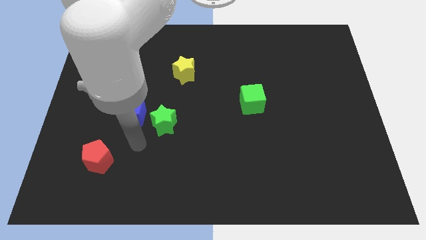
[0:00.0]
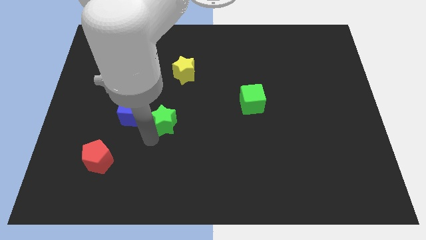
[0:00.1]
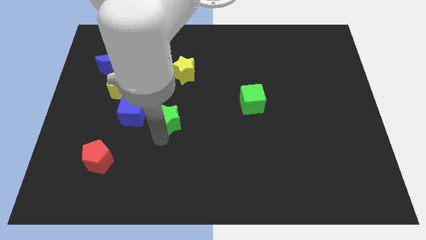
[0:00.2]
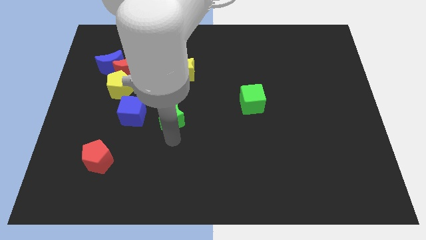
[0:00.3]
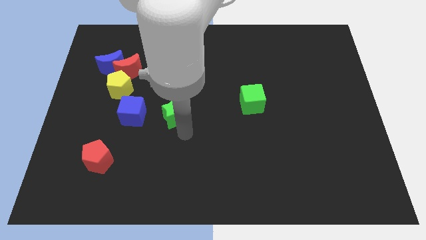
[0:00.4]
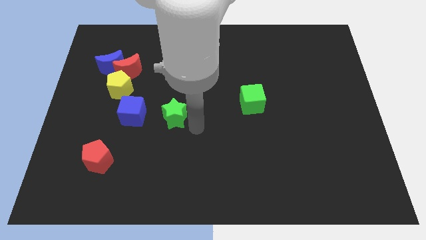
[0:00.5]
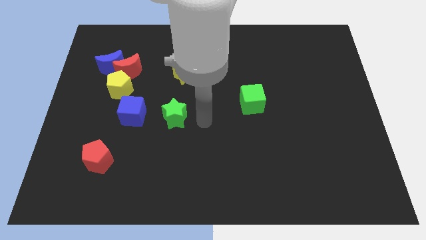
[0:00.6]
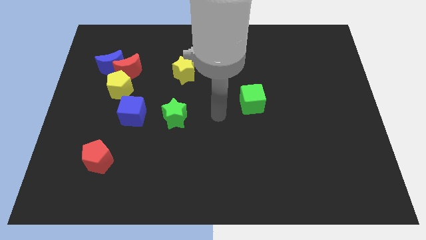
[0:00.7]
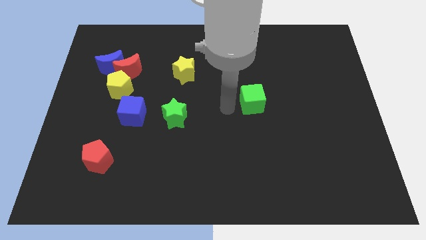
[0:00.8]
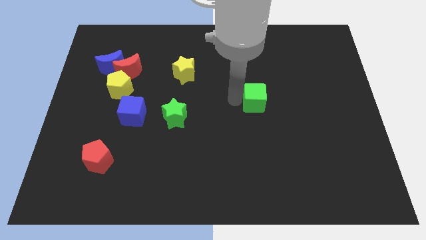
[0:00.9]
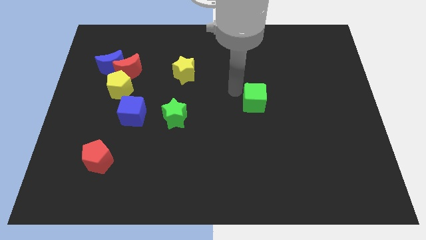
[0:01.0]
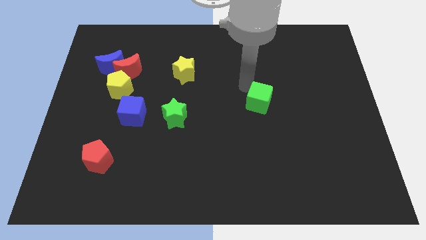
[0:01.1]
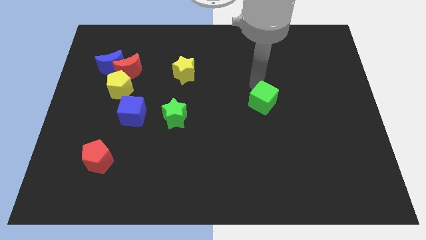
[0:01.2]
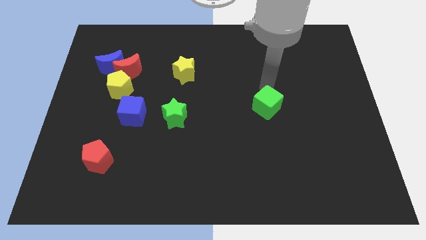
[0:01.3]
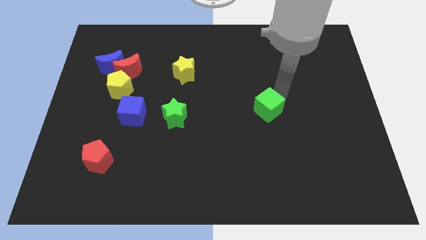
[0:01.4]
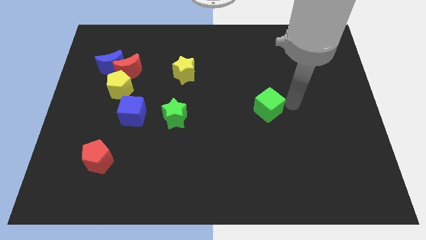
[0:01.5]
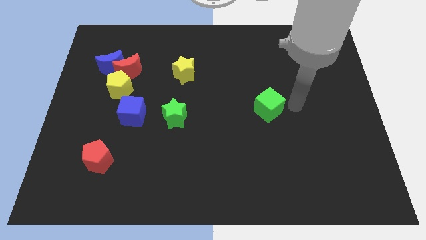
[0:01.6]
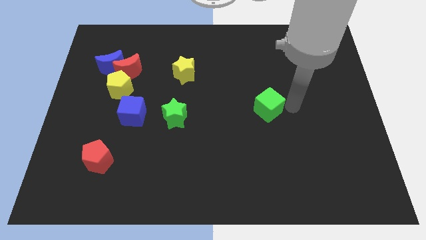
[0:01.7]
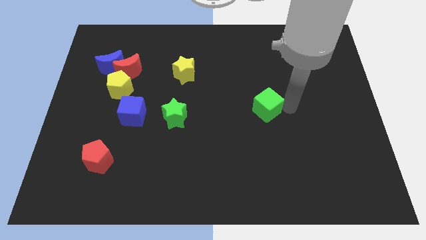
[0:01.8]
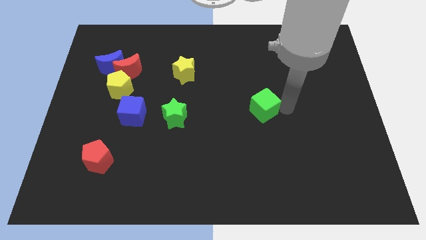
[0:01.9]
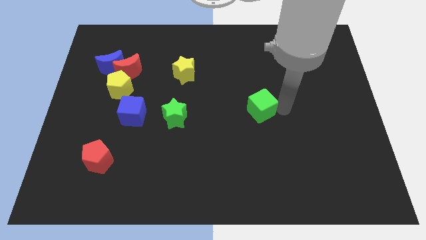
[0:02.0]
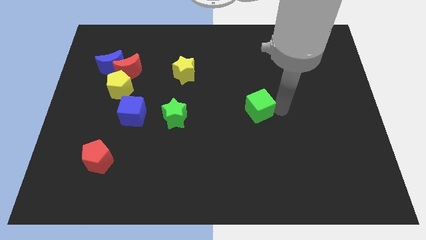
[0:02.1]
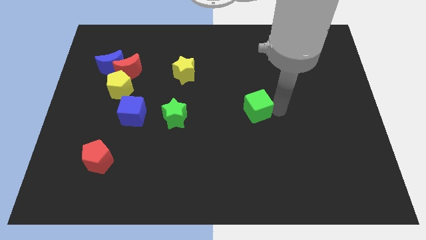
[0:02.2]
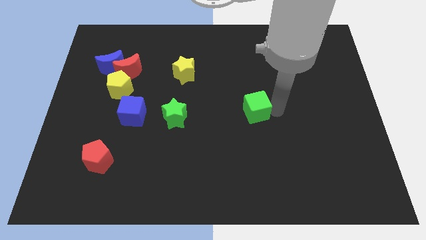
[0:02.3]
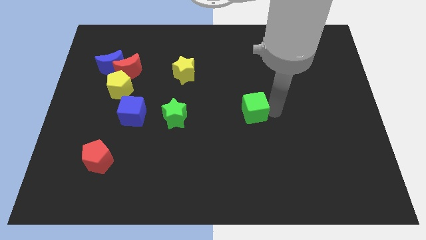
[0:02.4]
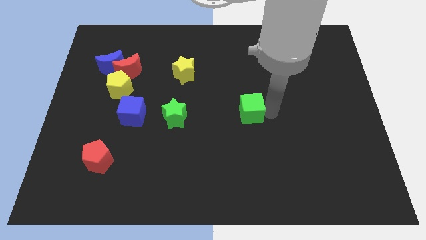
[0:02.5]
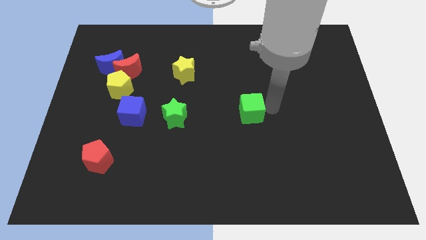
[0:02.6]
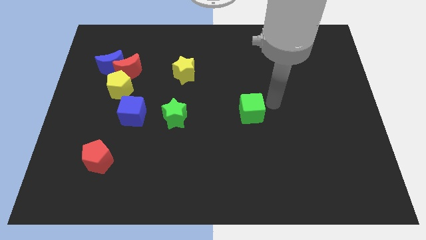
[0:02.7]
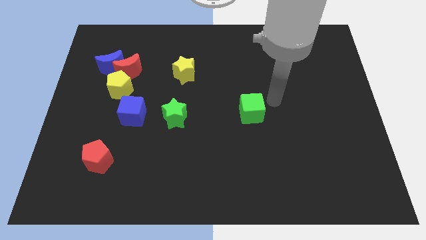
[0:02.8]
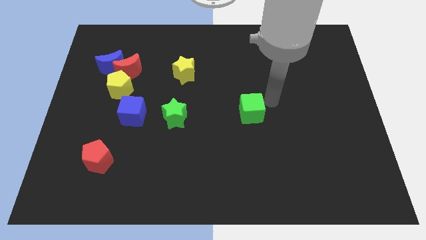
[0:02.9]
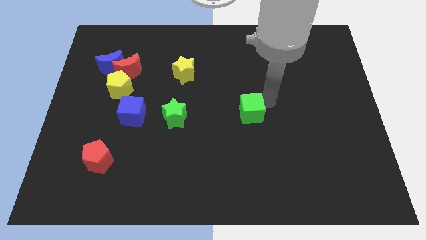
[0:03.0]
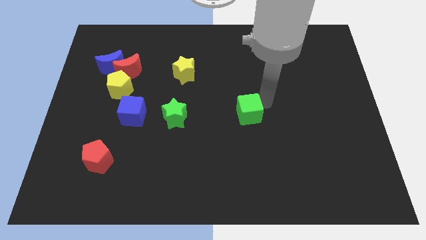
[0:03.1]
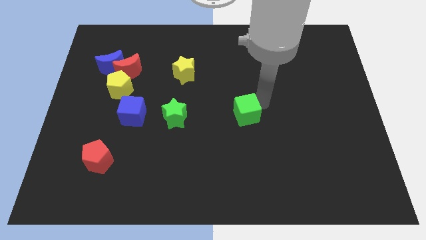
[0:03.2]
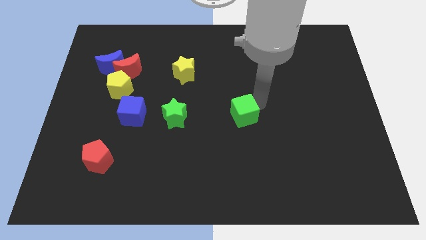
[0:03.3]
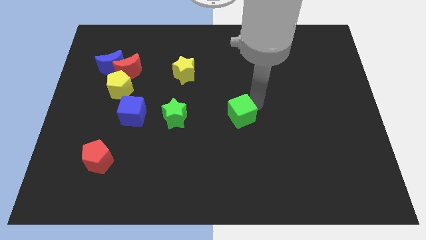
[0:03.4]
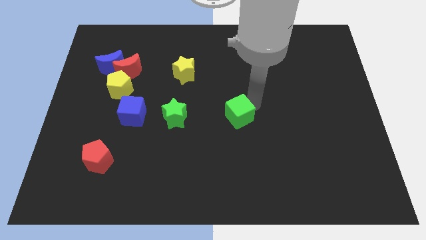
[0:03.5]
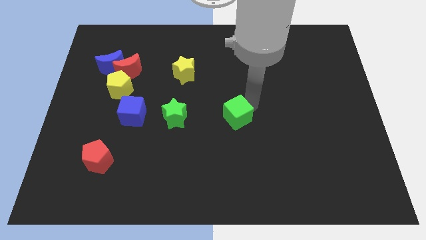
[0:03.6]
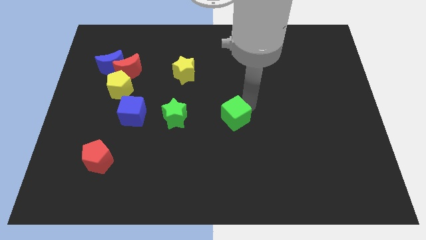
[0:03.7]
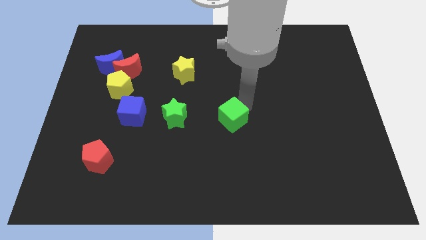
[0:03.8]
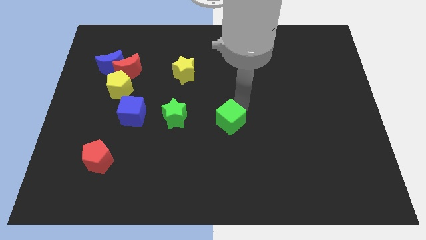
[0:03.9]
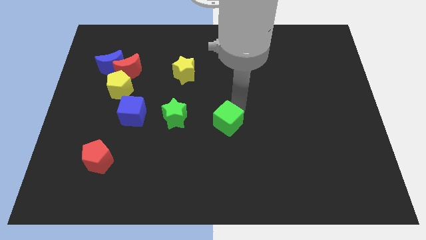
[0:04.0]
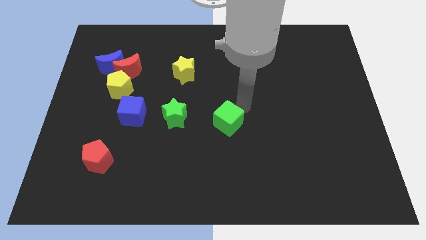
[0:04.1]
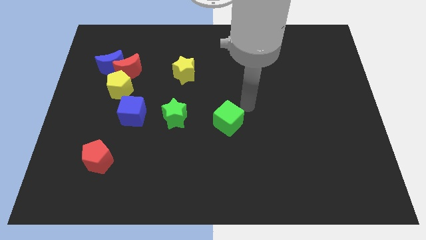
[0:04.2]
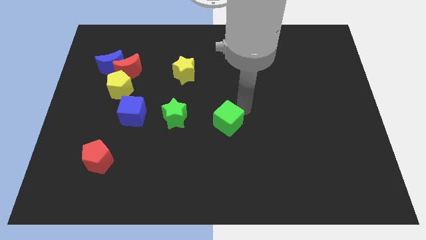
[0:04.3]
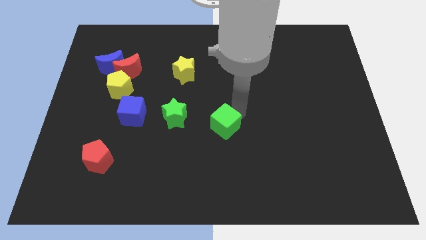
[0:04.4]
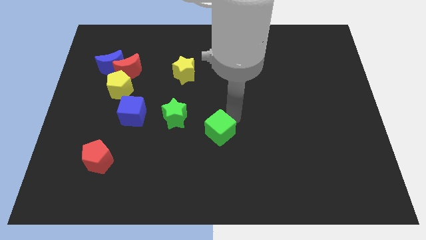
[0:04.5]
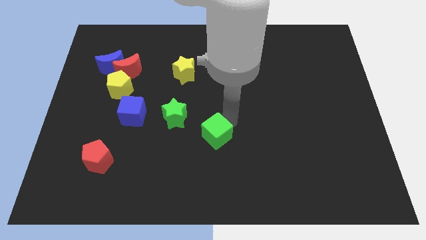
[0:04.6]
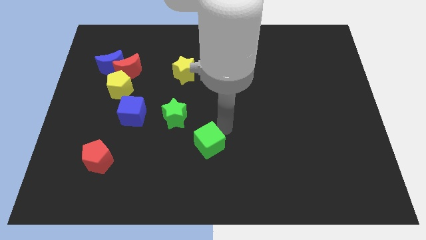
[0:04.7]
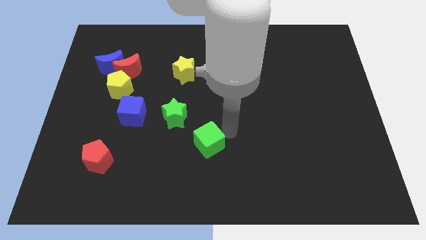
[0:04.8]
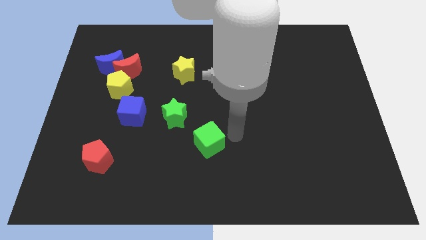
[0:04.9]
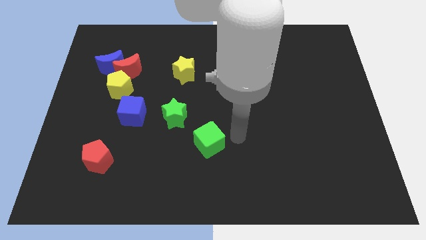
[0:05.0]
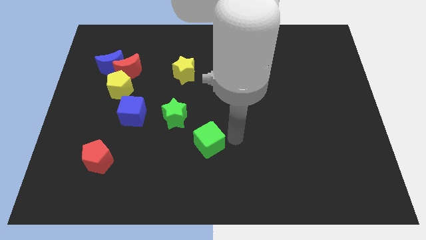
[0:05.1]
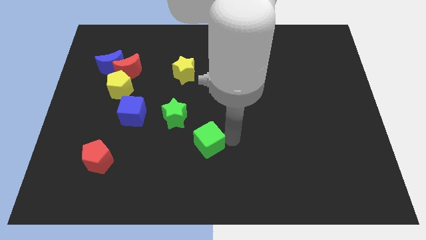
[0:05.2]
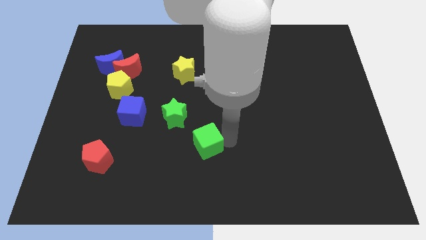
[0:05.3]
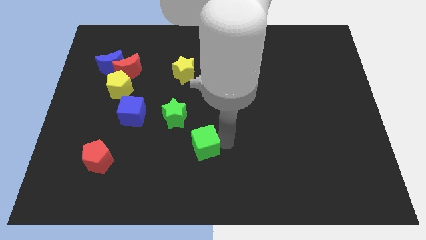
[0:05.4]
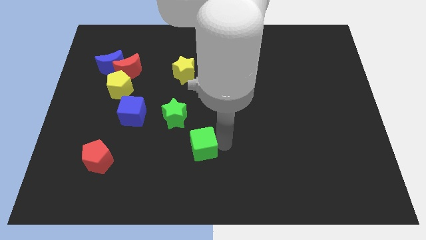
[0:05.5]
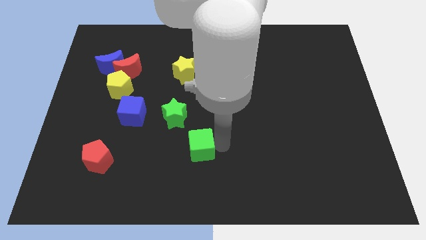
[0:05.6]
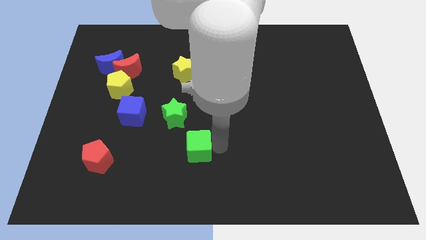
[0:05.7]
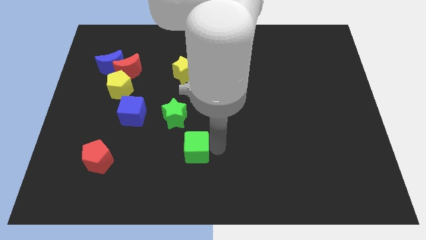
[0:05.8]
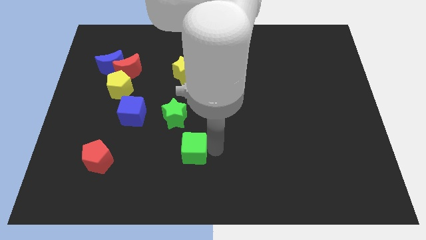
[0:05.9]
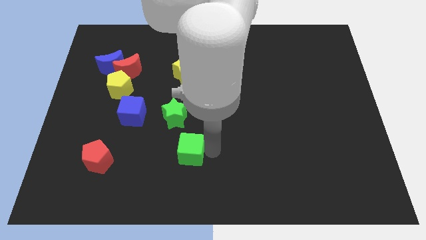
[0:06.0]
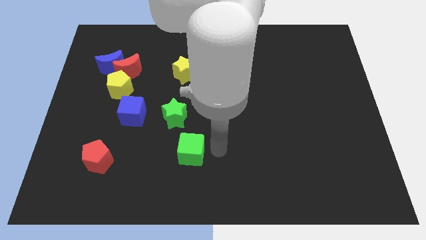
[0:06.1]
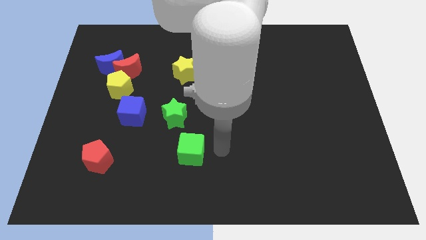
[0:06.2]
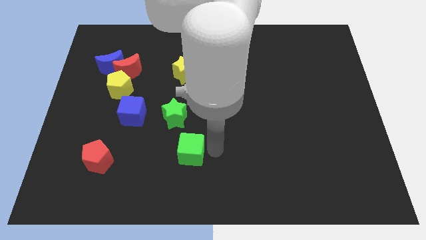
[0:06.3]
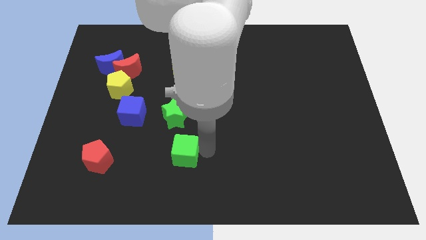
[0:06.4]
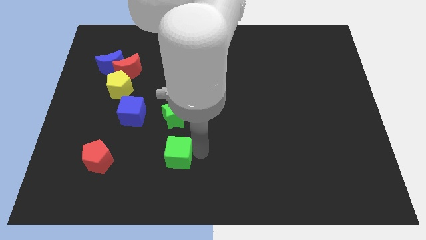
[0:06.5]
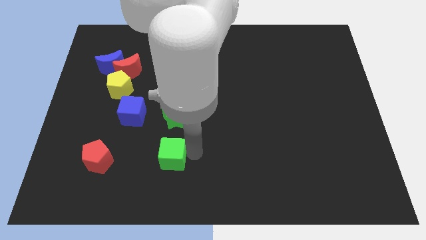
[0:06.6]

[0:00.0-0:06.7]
put the green cube to the right of the red pentagon
